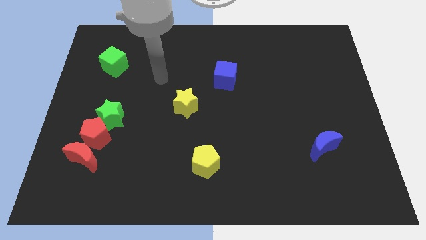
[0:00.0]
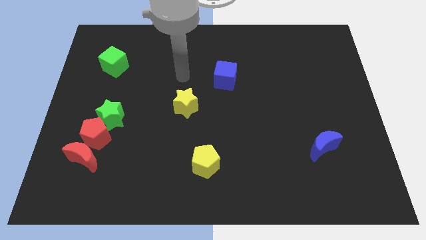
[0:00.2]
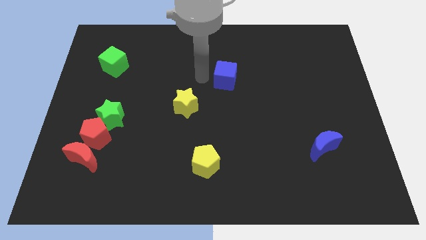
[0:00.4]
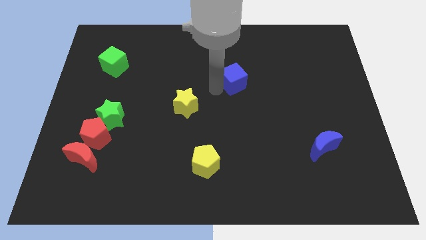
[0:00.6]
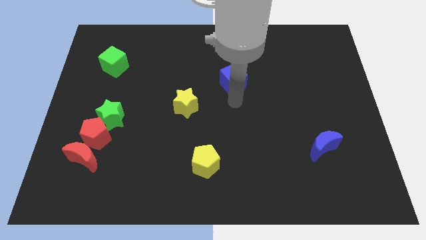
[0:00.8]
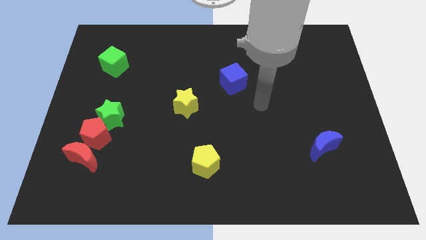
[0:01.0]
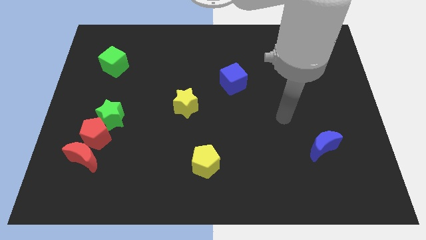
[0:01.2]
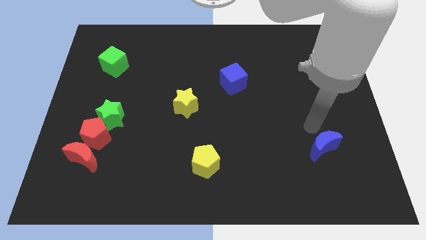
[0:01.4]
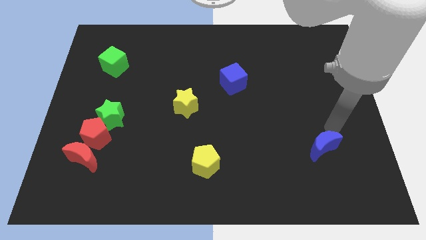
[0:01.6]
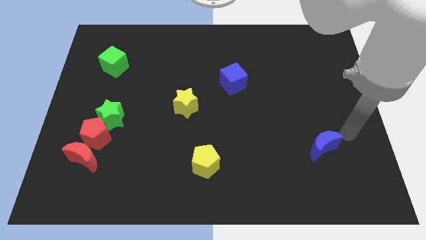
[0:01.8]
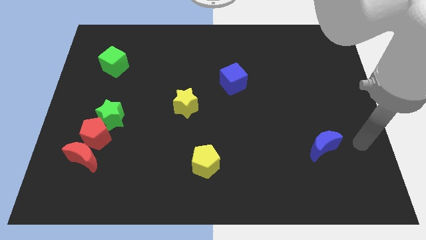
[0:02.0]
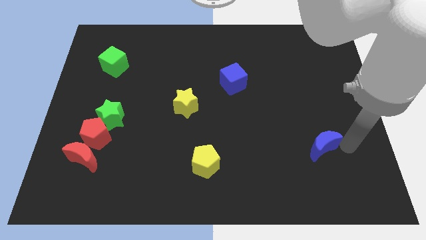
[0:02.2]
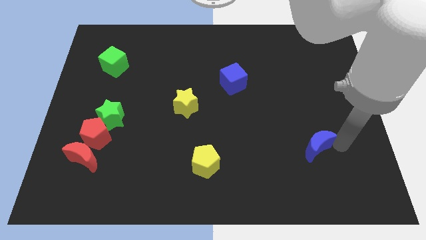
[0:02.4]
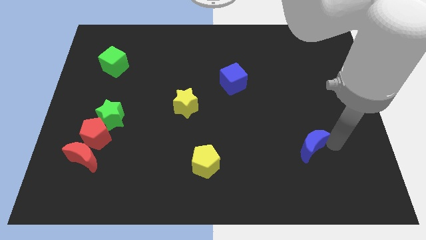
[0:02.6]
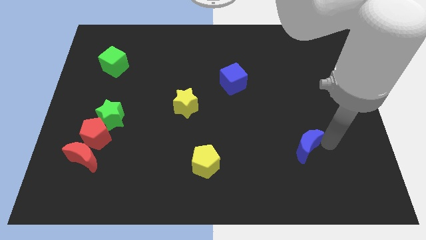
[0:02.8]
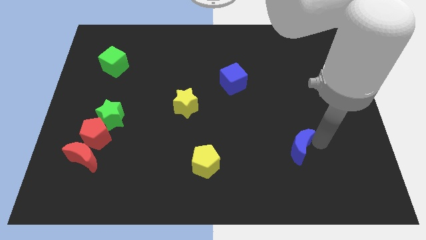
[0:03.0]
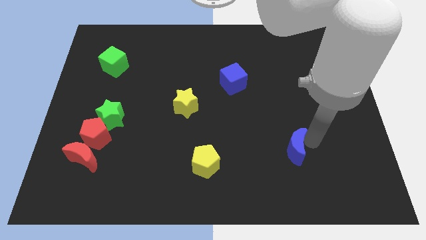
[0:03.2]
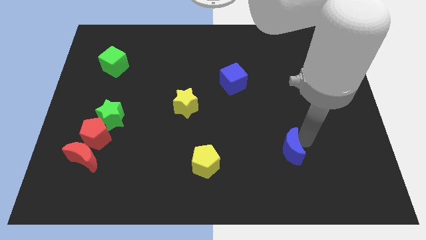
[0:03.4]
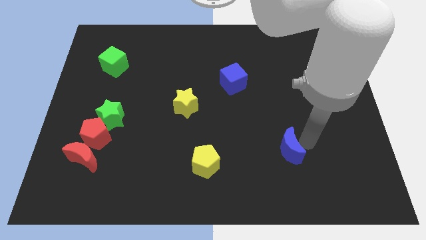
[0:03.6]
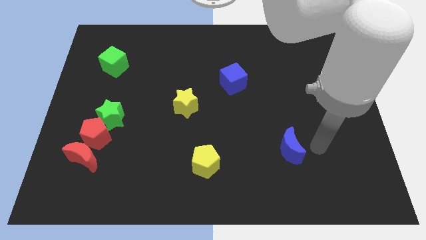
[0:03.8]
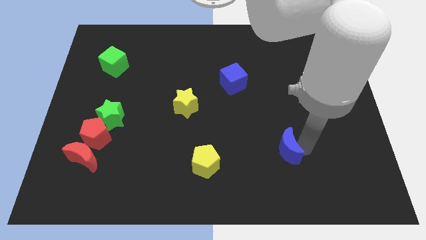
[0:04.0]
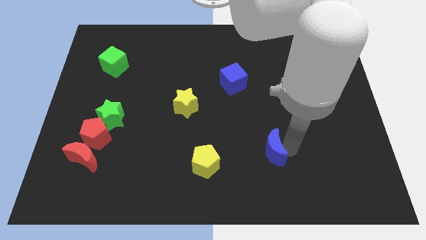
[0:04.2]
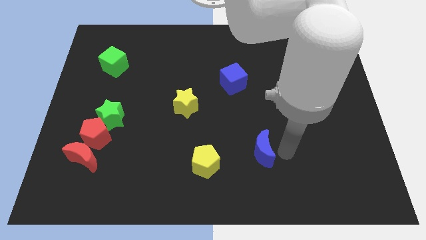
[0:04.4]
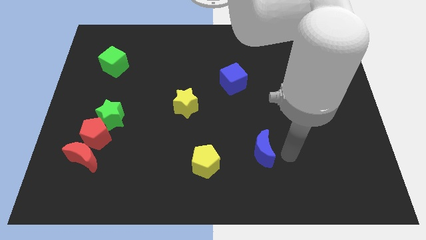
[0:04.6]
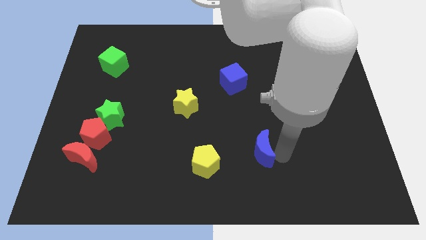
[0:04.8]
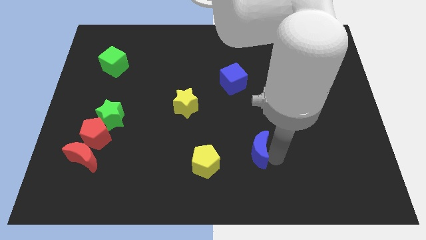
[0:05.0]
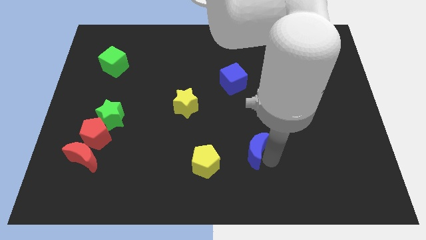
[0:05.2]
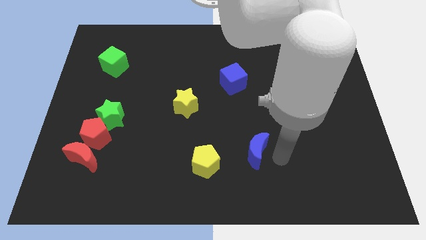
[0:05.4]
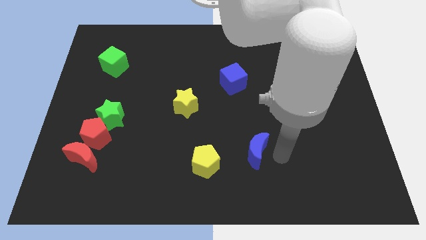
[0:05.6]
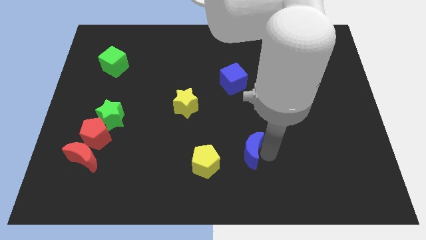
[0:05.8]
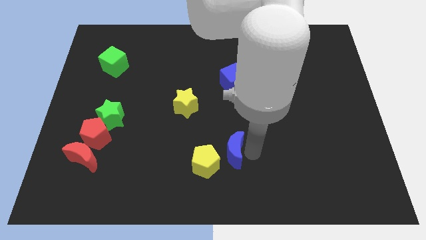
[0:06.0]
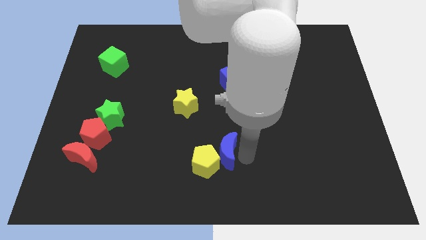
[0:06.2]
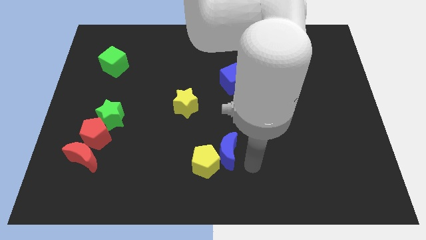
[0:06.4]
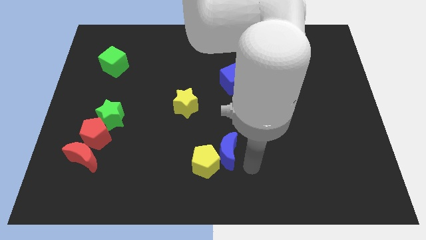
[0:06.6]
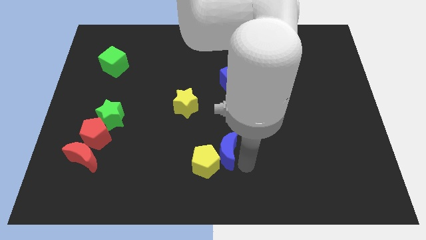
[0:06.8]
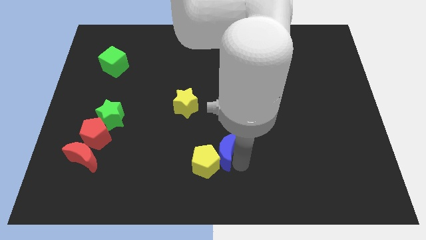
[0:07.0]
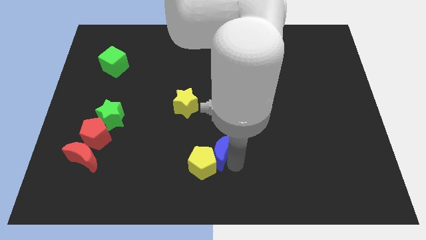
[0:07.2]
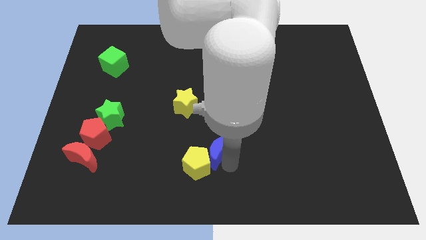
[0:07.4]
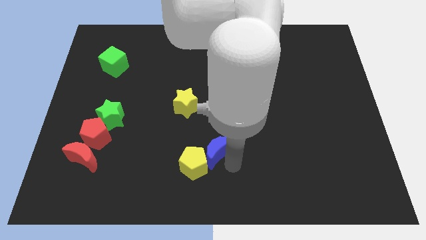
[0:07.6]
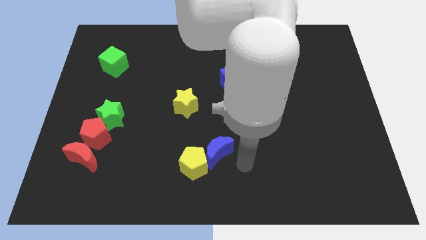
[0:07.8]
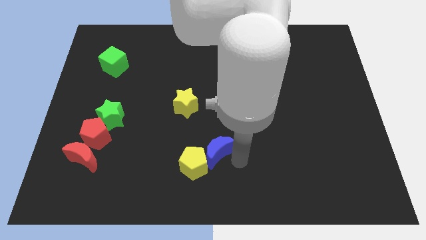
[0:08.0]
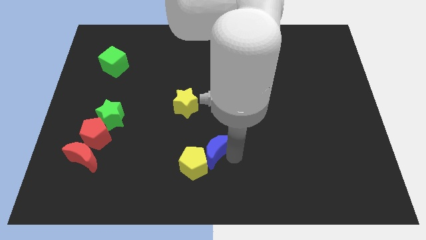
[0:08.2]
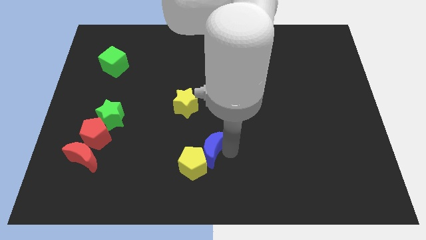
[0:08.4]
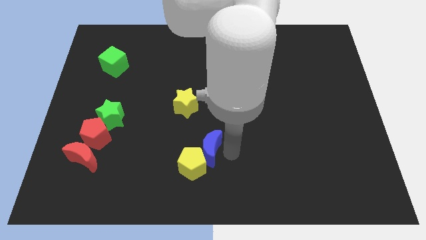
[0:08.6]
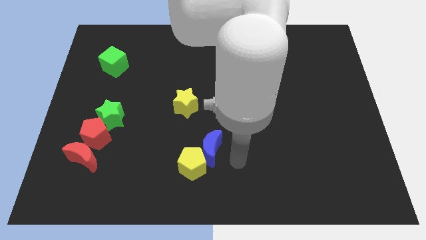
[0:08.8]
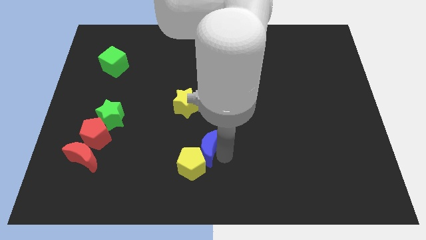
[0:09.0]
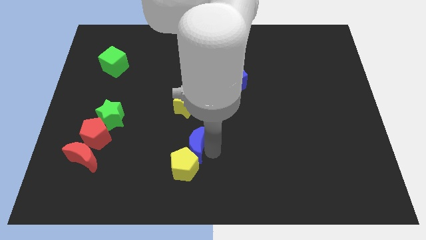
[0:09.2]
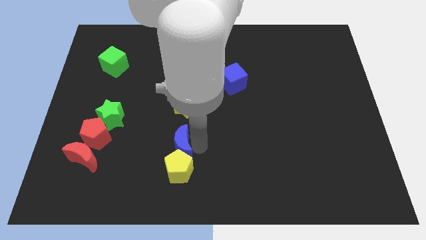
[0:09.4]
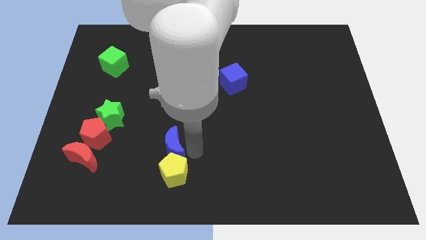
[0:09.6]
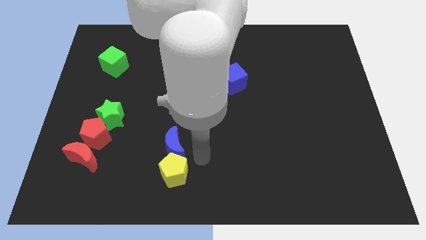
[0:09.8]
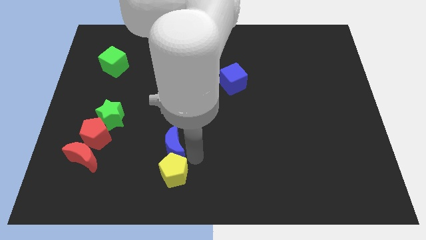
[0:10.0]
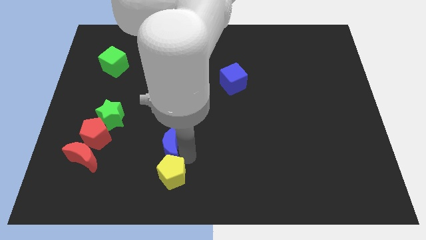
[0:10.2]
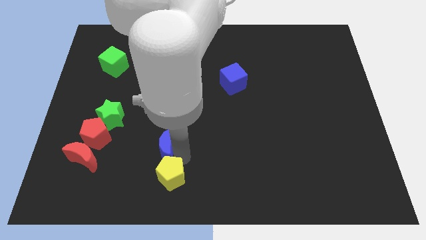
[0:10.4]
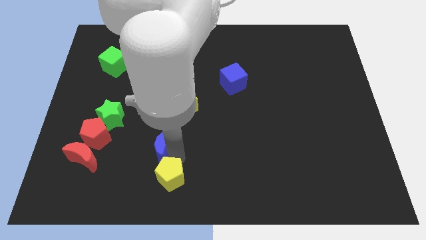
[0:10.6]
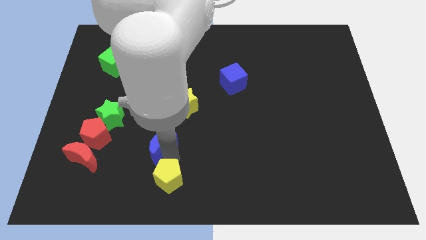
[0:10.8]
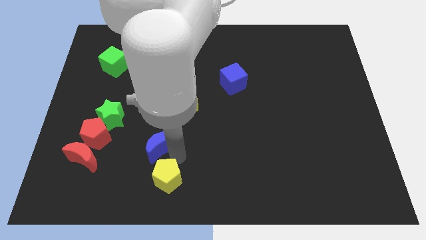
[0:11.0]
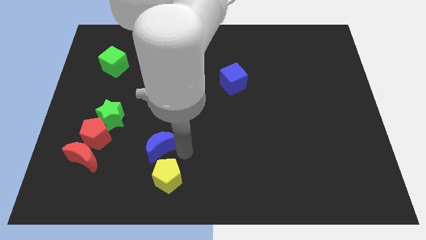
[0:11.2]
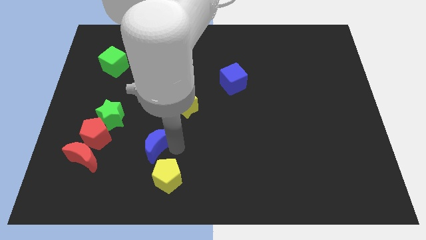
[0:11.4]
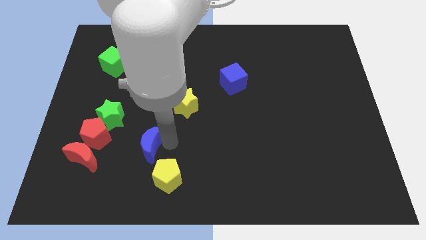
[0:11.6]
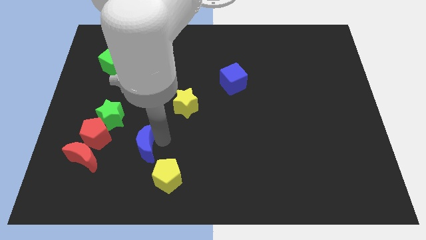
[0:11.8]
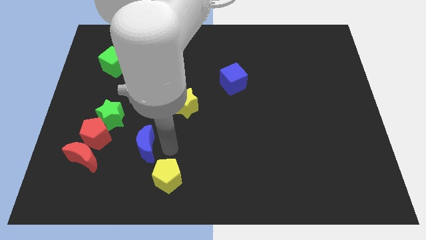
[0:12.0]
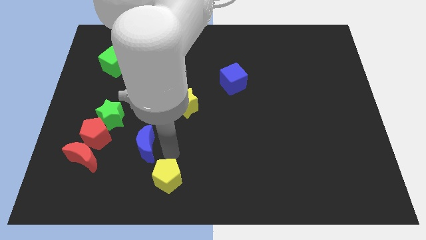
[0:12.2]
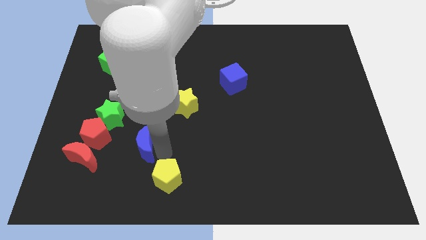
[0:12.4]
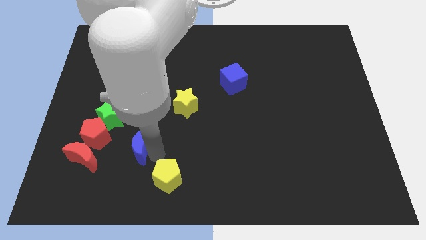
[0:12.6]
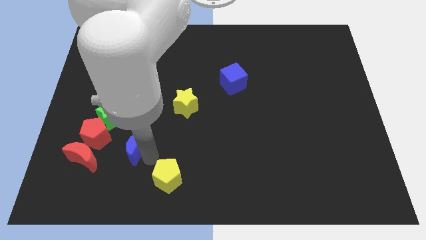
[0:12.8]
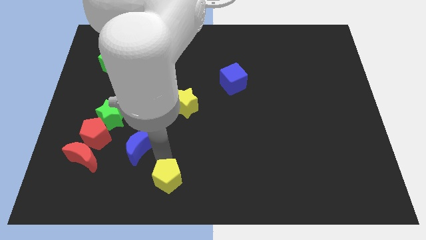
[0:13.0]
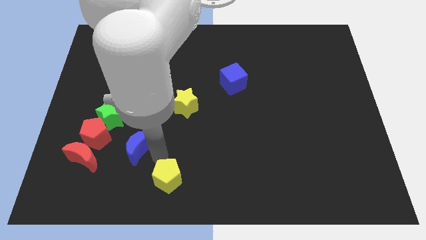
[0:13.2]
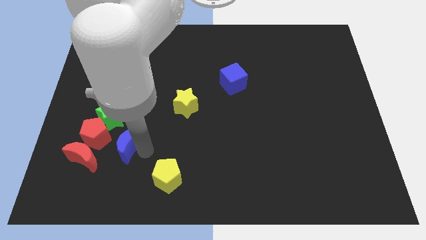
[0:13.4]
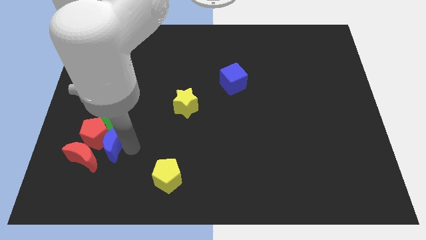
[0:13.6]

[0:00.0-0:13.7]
push the blue moon next to the red pentagon

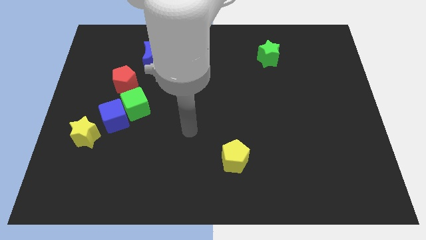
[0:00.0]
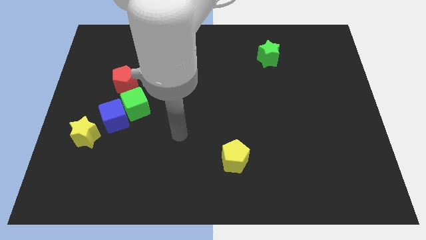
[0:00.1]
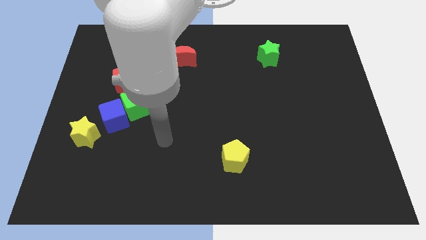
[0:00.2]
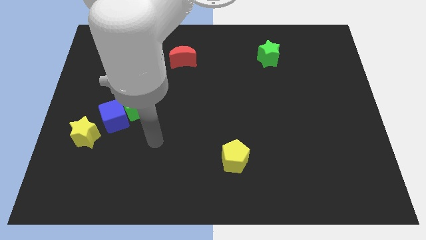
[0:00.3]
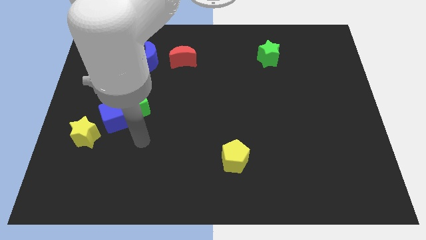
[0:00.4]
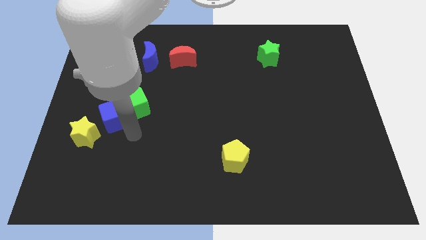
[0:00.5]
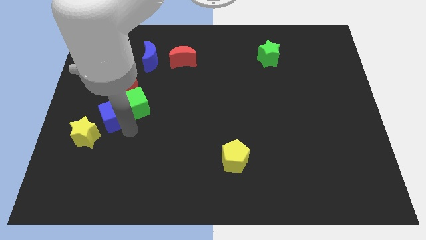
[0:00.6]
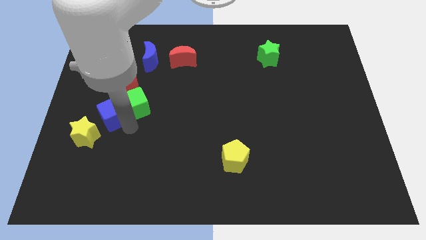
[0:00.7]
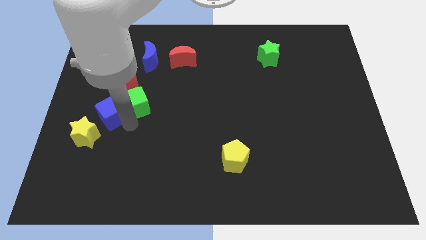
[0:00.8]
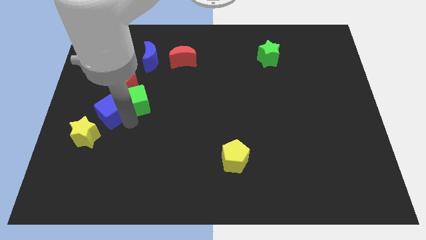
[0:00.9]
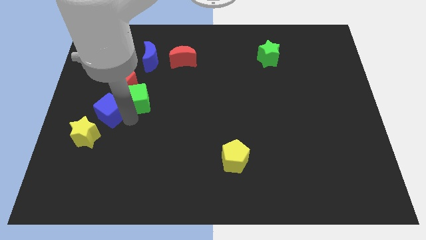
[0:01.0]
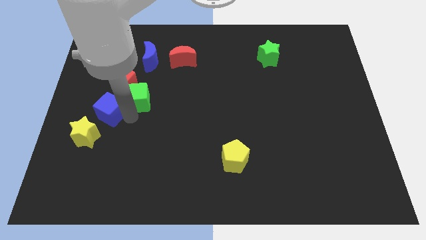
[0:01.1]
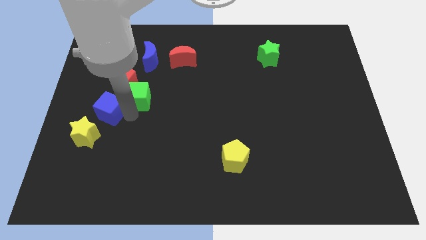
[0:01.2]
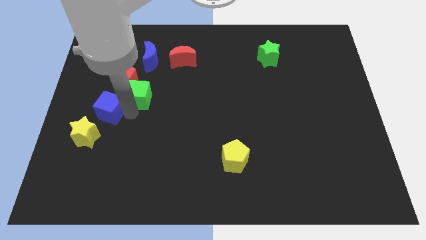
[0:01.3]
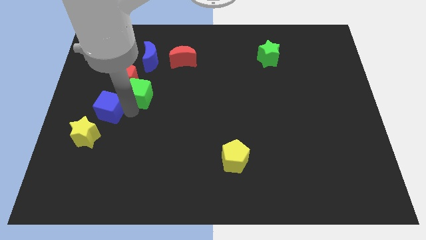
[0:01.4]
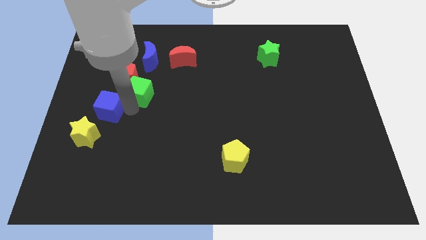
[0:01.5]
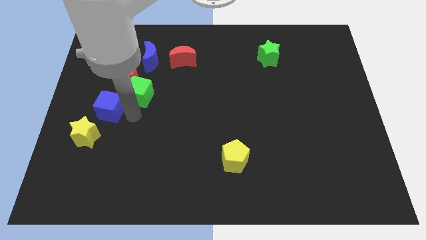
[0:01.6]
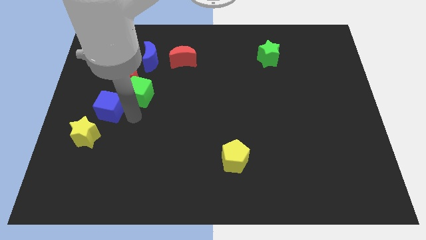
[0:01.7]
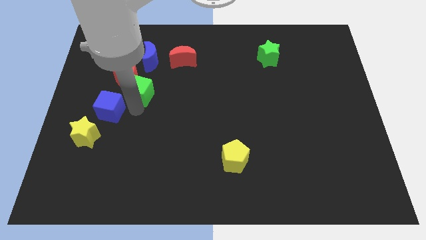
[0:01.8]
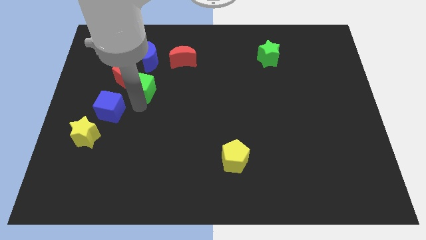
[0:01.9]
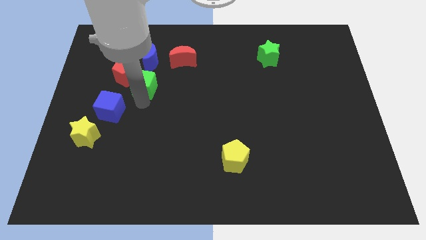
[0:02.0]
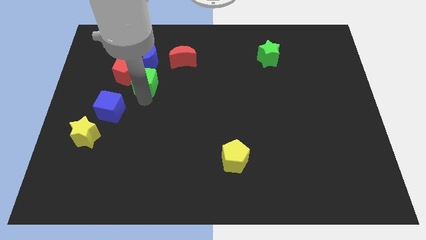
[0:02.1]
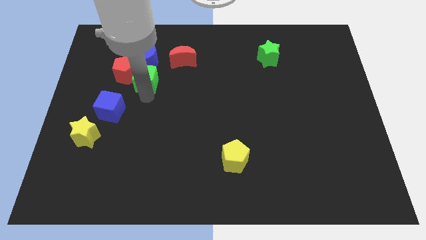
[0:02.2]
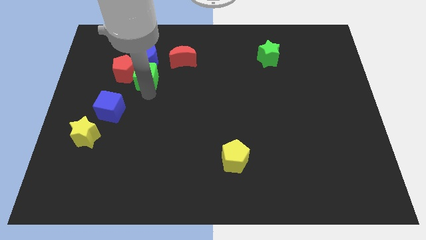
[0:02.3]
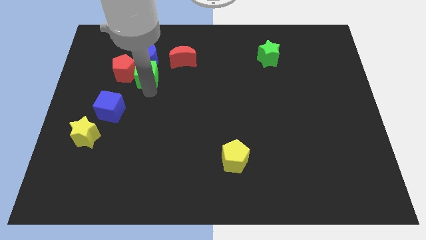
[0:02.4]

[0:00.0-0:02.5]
move the green cube towards the blue moon
